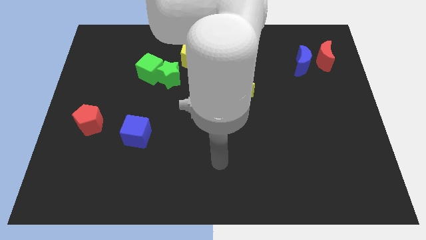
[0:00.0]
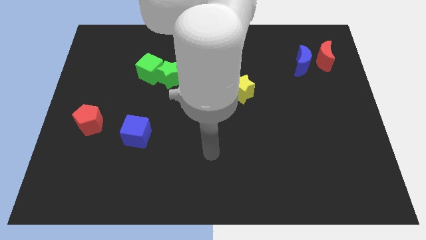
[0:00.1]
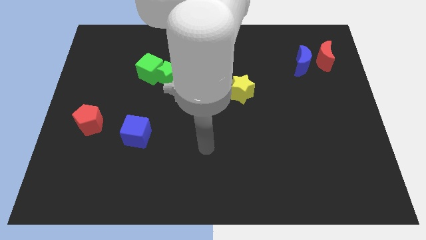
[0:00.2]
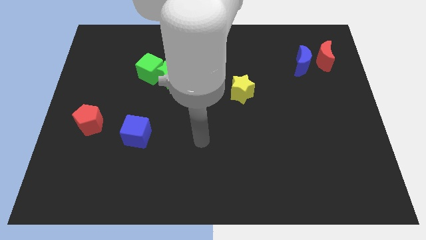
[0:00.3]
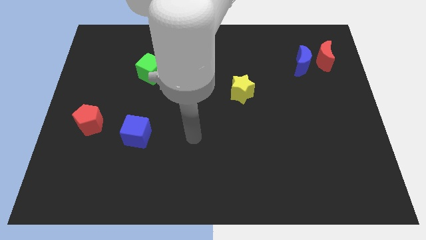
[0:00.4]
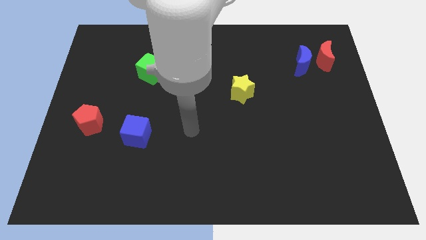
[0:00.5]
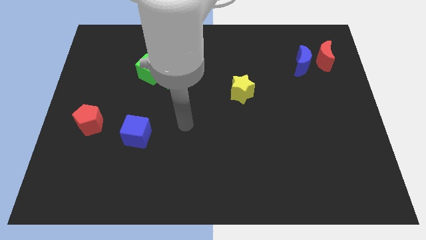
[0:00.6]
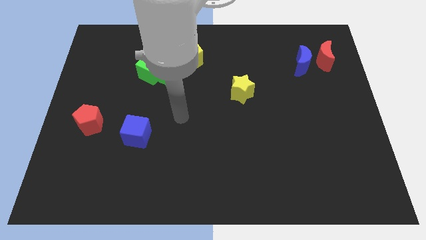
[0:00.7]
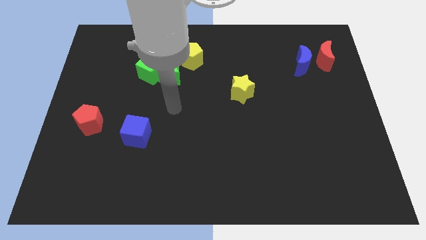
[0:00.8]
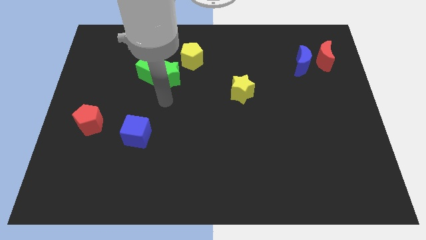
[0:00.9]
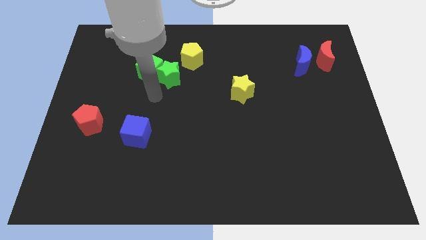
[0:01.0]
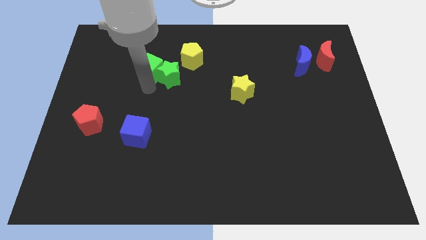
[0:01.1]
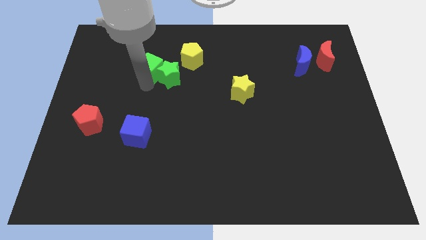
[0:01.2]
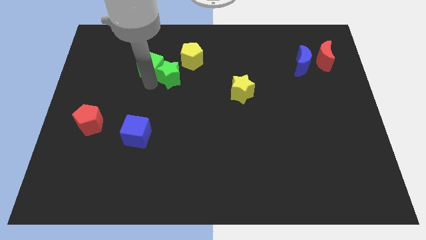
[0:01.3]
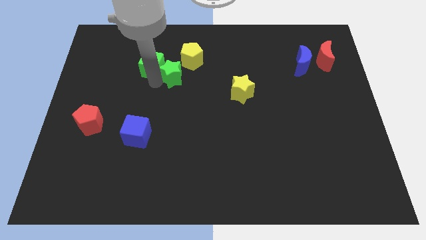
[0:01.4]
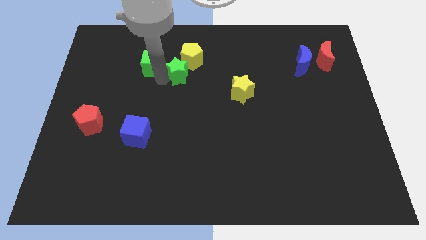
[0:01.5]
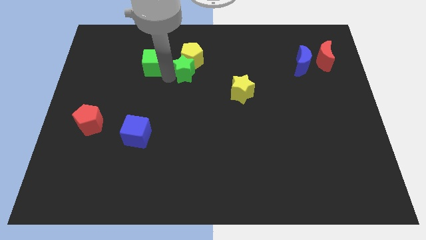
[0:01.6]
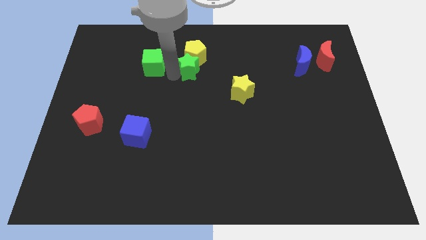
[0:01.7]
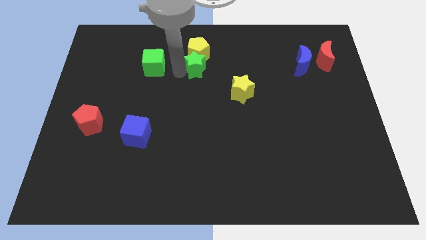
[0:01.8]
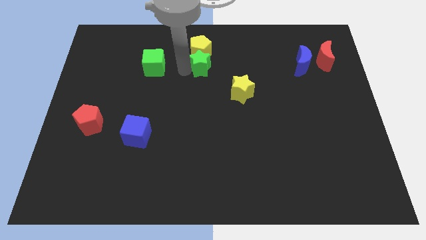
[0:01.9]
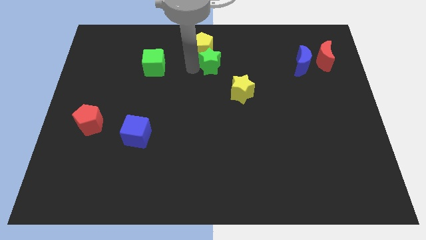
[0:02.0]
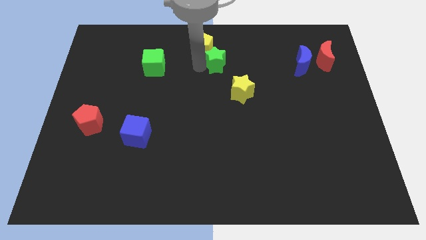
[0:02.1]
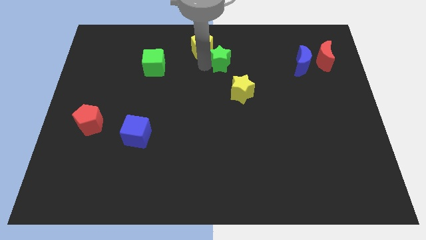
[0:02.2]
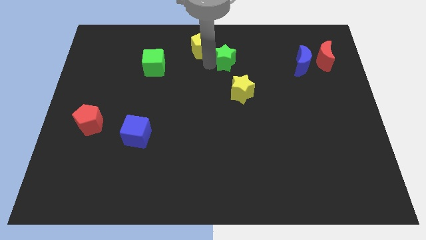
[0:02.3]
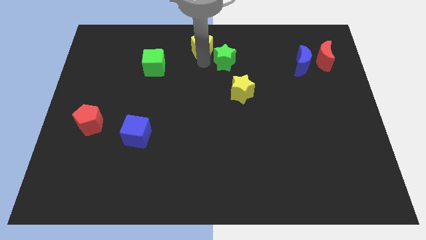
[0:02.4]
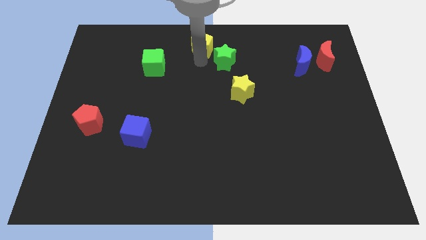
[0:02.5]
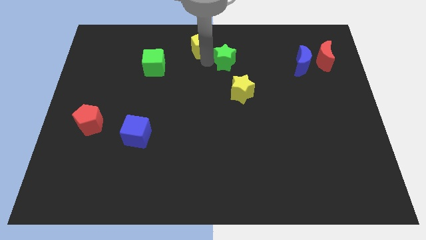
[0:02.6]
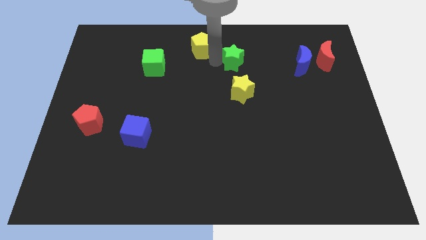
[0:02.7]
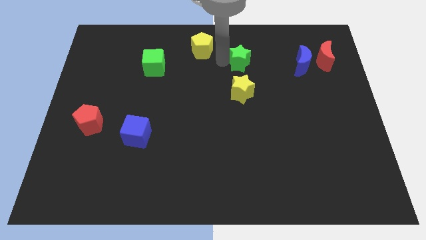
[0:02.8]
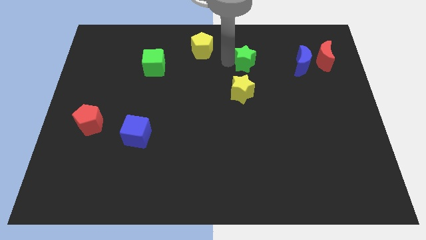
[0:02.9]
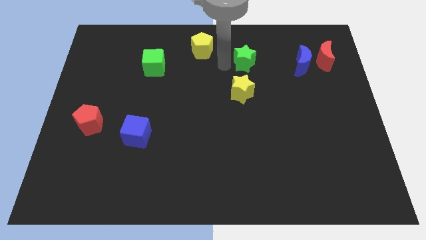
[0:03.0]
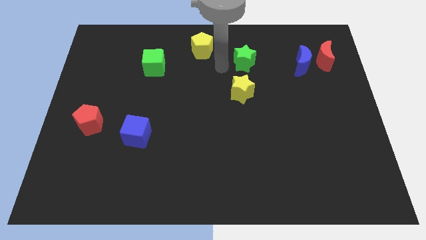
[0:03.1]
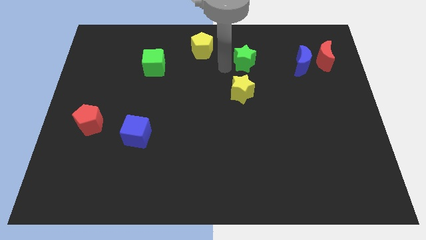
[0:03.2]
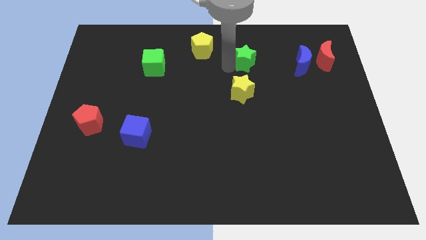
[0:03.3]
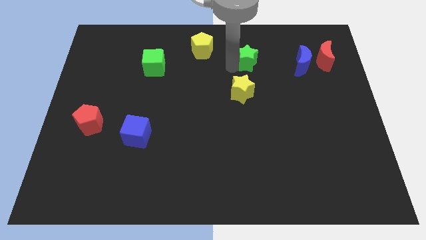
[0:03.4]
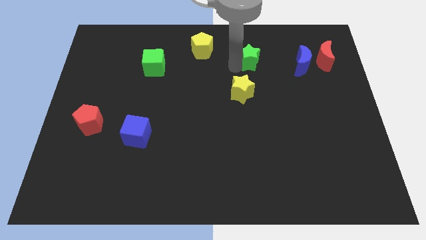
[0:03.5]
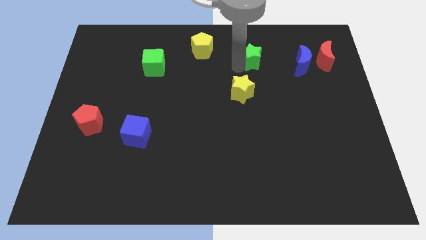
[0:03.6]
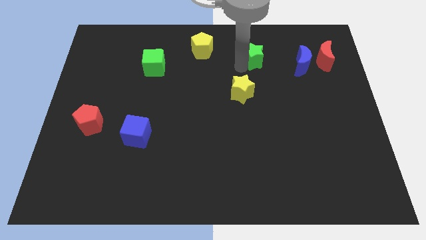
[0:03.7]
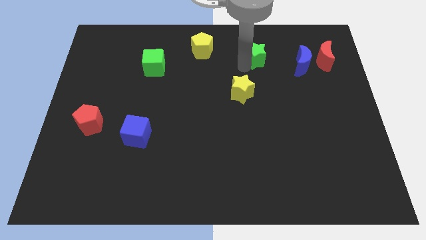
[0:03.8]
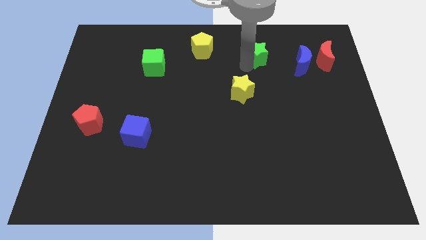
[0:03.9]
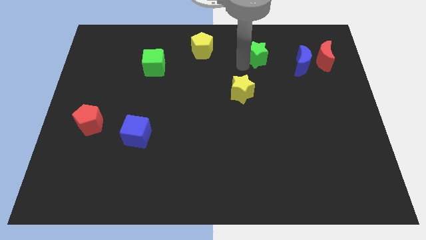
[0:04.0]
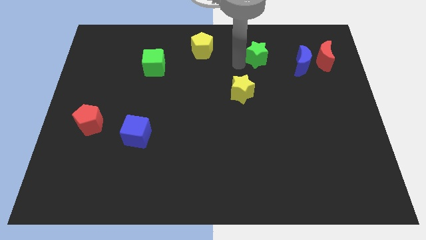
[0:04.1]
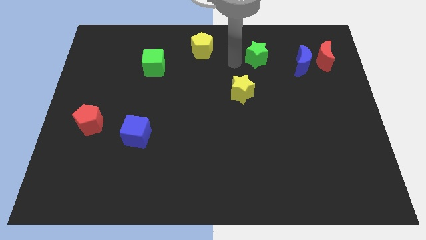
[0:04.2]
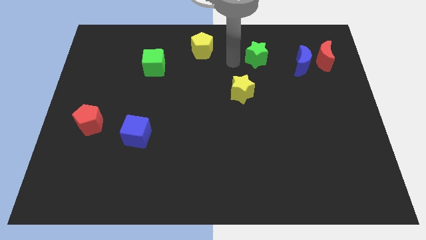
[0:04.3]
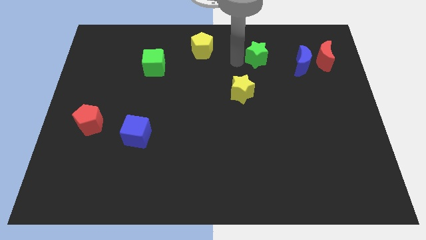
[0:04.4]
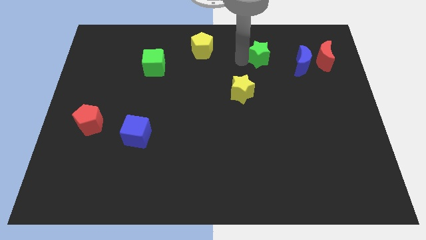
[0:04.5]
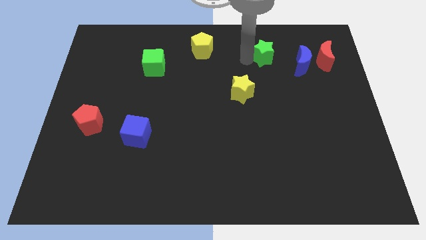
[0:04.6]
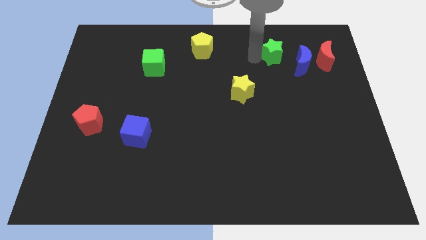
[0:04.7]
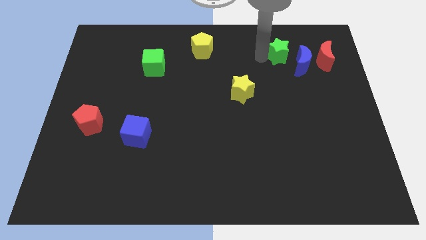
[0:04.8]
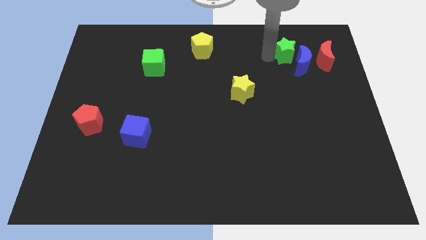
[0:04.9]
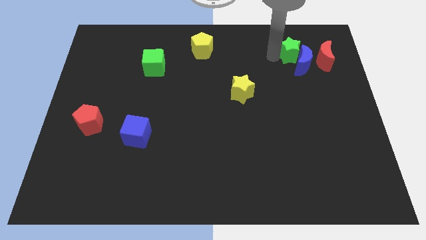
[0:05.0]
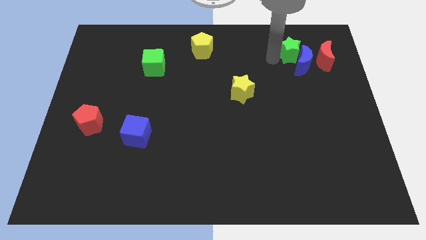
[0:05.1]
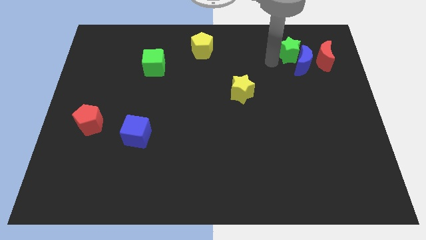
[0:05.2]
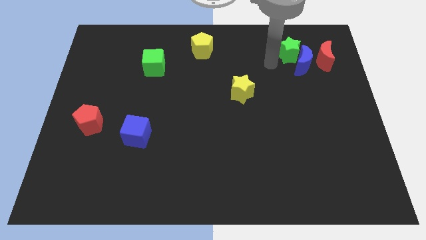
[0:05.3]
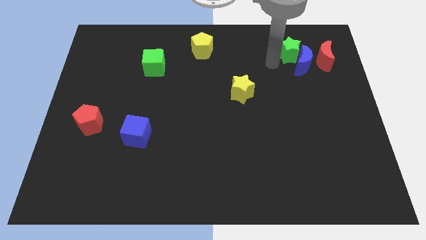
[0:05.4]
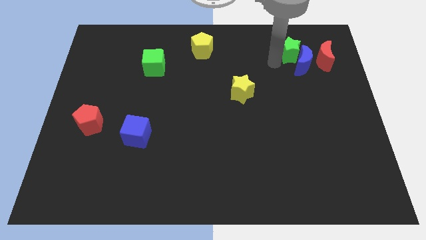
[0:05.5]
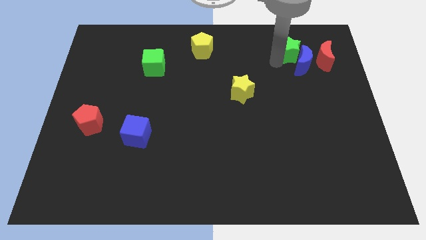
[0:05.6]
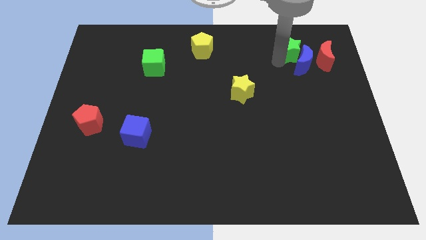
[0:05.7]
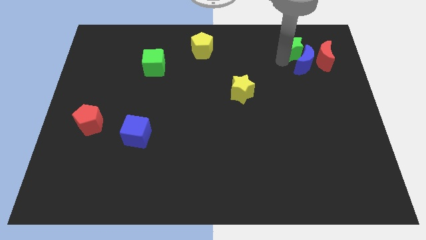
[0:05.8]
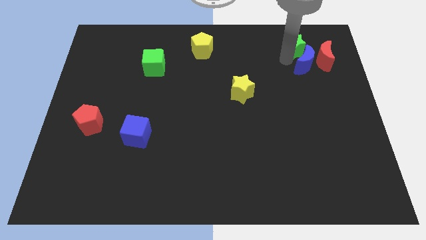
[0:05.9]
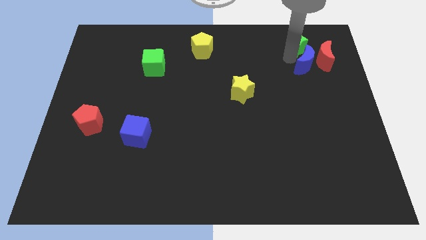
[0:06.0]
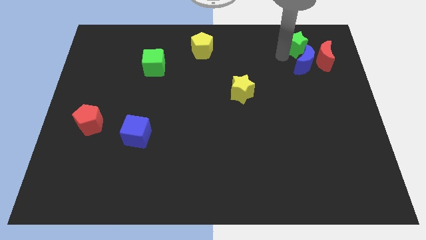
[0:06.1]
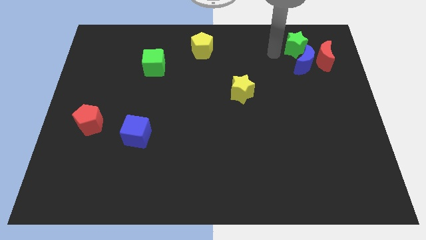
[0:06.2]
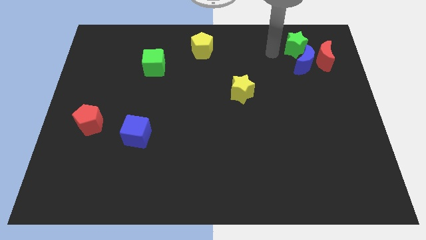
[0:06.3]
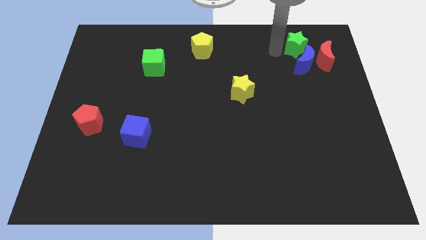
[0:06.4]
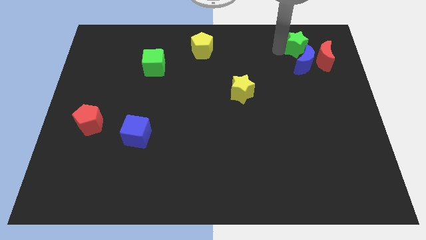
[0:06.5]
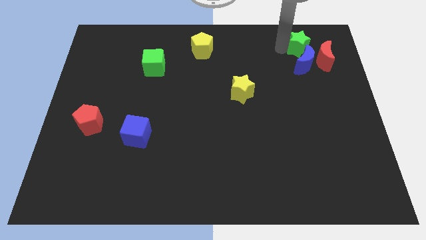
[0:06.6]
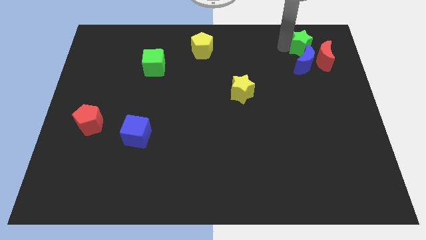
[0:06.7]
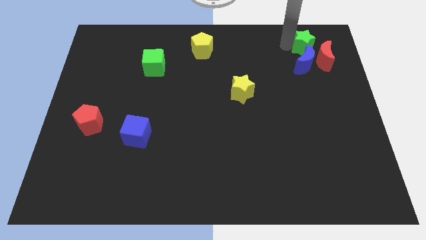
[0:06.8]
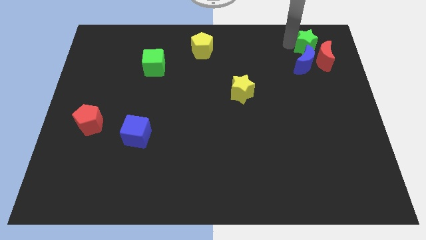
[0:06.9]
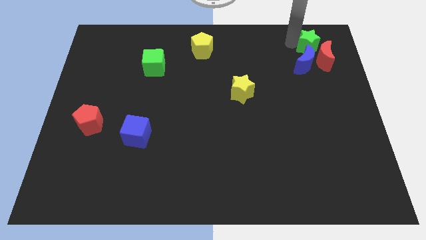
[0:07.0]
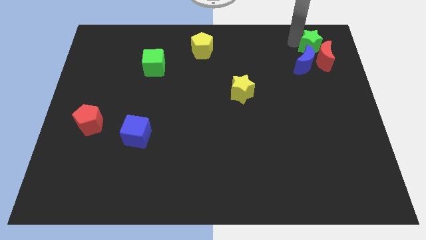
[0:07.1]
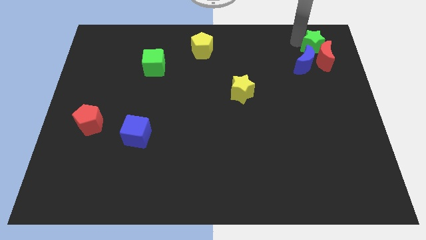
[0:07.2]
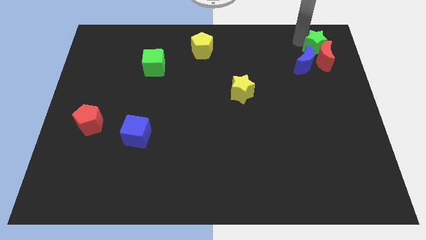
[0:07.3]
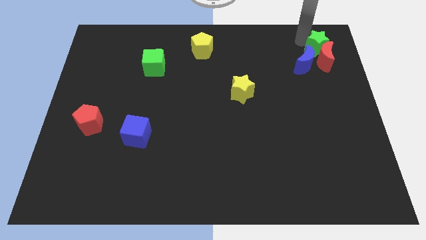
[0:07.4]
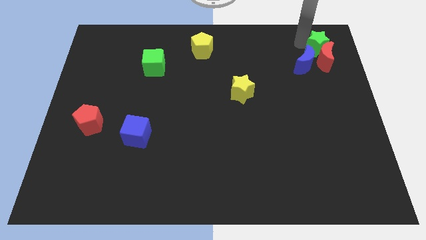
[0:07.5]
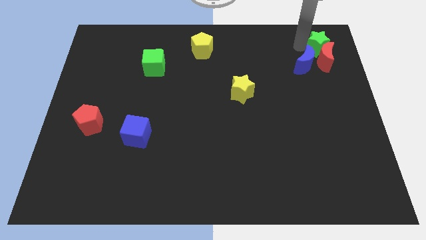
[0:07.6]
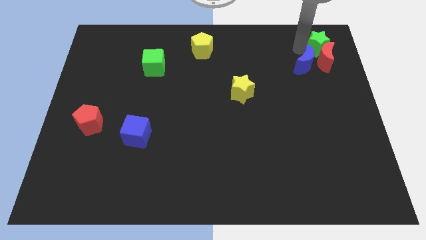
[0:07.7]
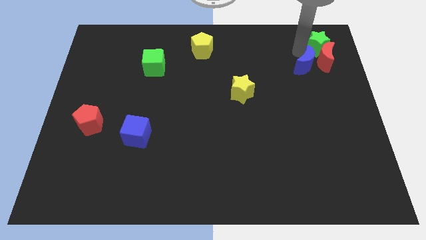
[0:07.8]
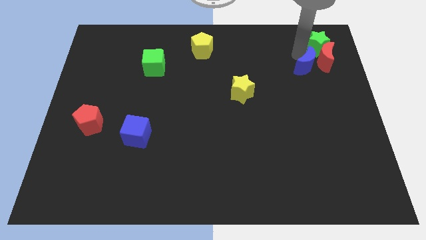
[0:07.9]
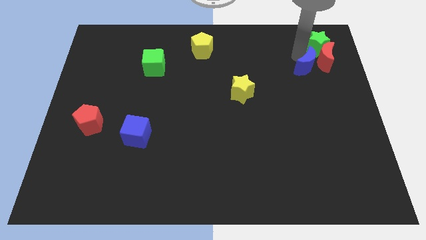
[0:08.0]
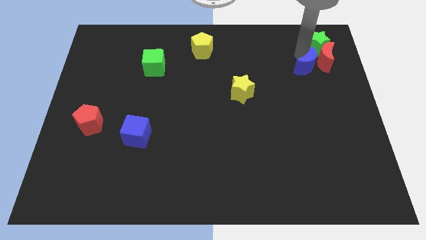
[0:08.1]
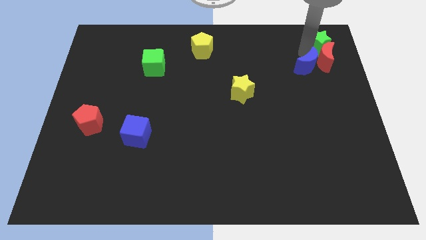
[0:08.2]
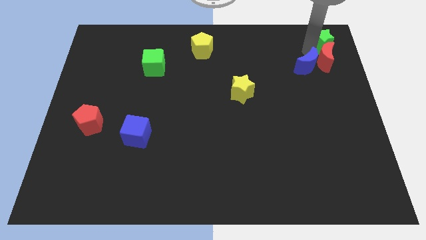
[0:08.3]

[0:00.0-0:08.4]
slide the green star to the upper right corner
